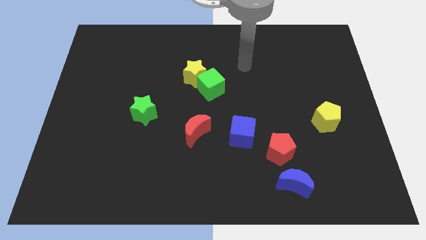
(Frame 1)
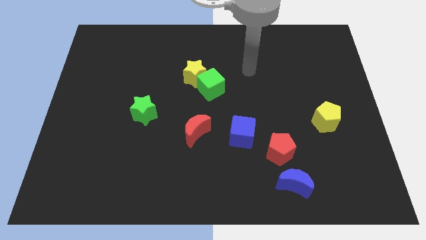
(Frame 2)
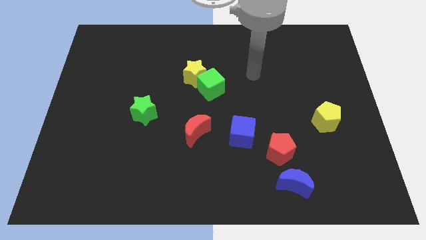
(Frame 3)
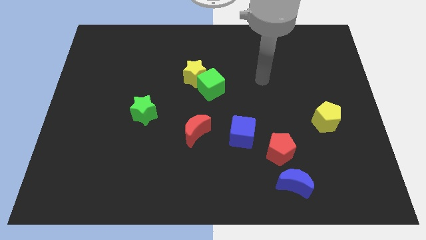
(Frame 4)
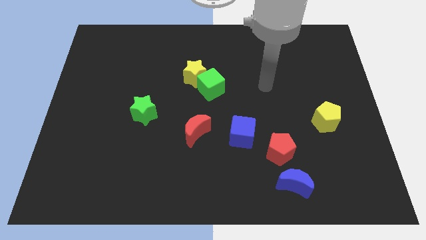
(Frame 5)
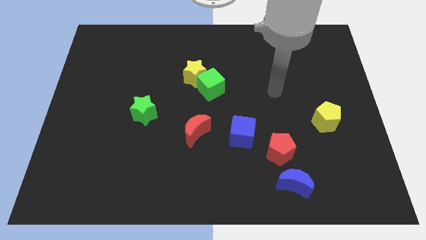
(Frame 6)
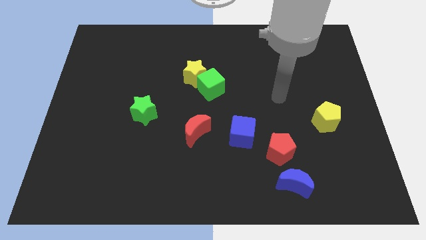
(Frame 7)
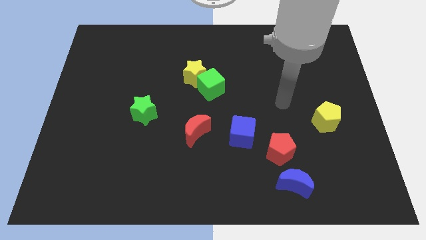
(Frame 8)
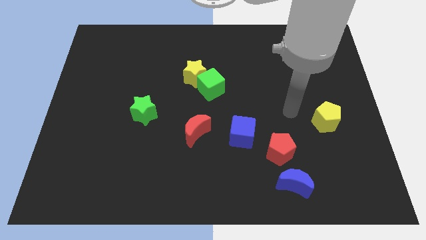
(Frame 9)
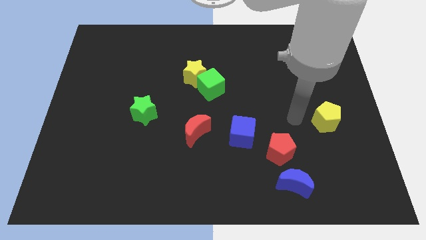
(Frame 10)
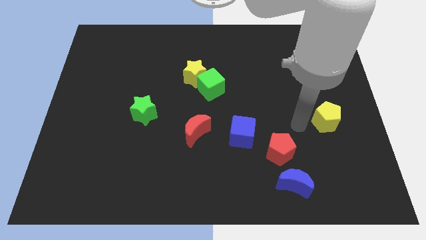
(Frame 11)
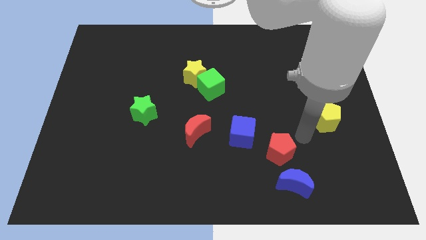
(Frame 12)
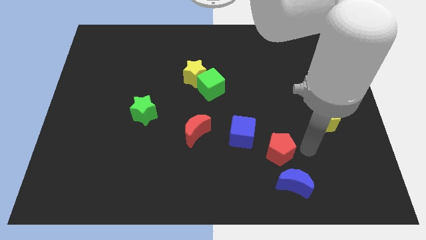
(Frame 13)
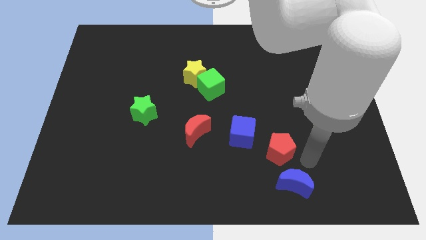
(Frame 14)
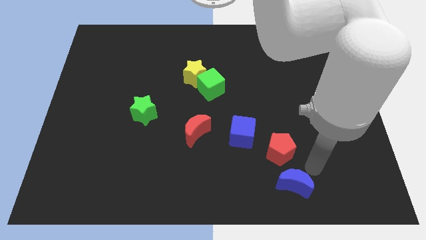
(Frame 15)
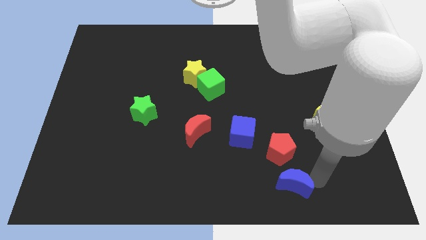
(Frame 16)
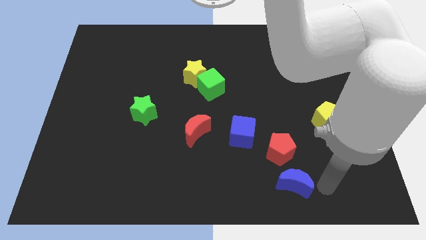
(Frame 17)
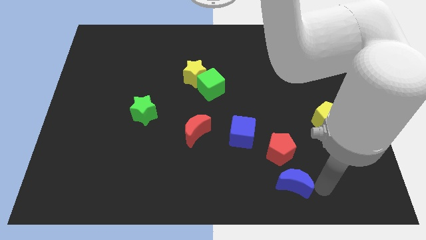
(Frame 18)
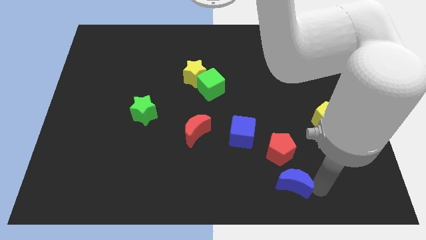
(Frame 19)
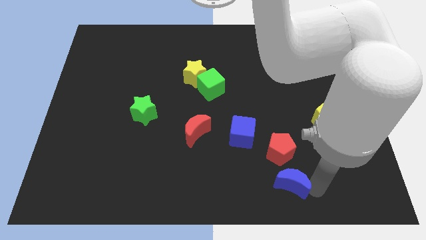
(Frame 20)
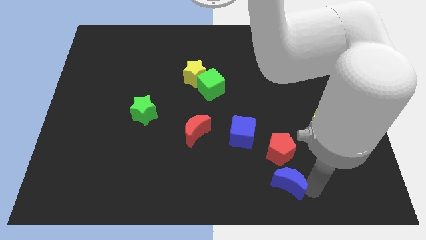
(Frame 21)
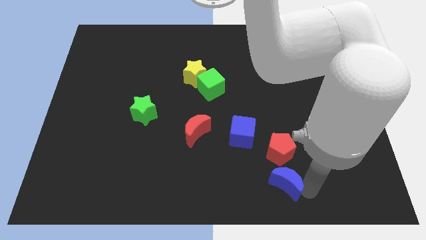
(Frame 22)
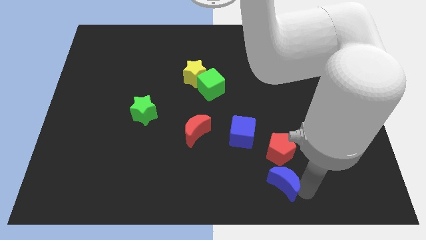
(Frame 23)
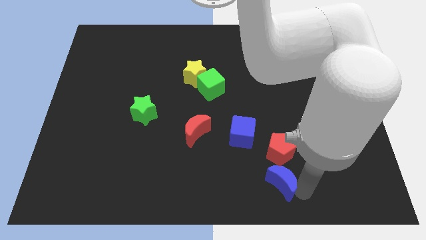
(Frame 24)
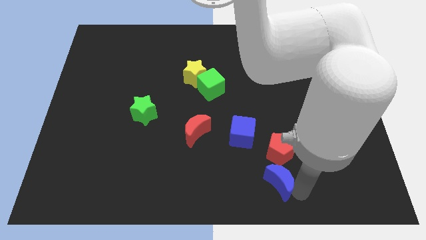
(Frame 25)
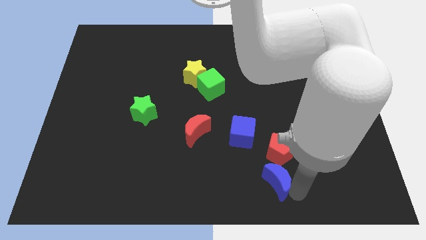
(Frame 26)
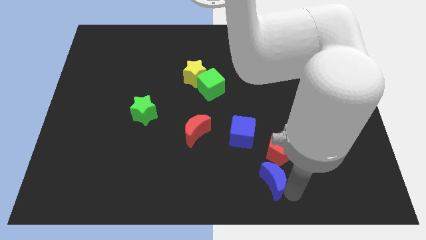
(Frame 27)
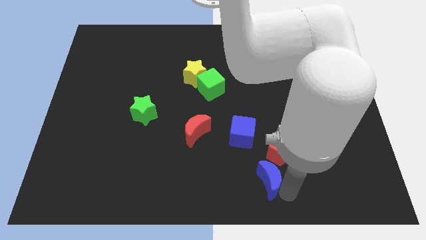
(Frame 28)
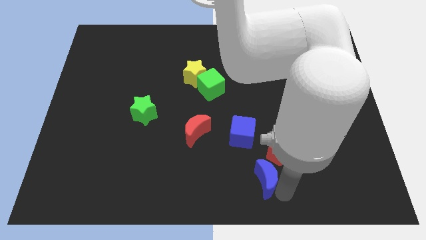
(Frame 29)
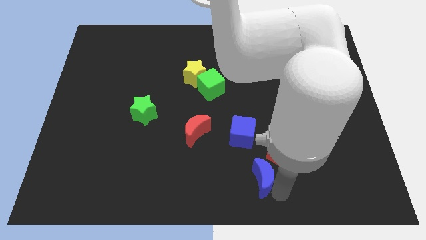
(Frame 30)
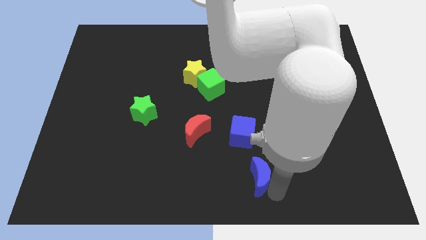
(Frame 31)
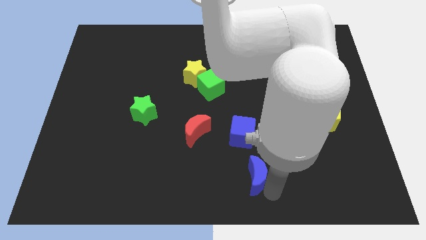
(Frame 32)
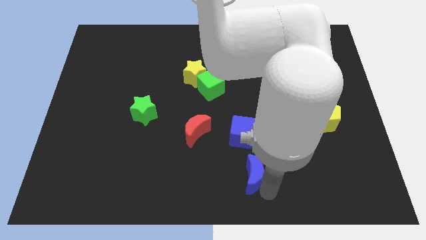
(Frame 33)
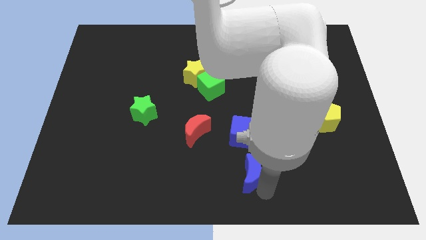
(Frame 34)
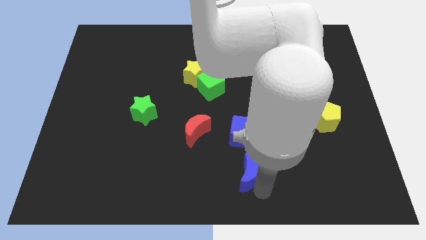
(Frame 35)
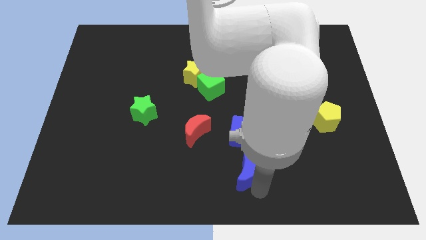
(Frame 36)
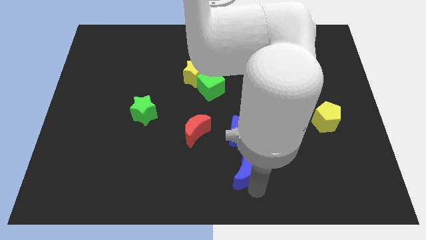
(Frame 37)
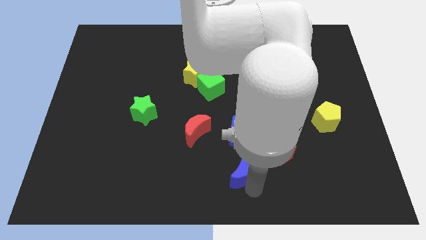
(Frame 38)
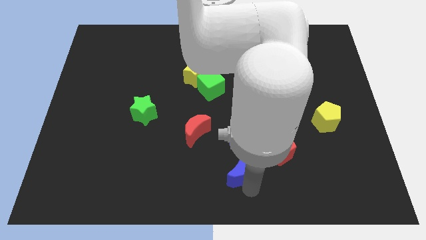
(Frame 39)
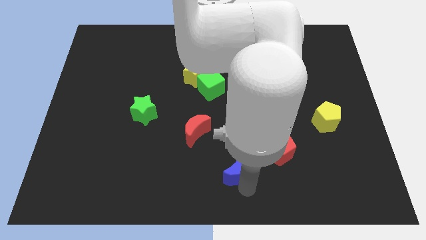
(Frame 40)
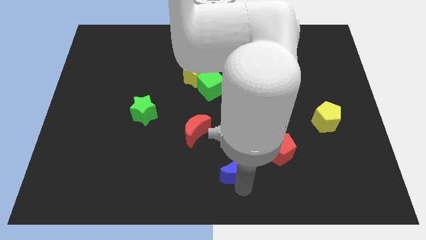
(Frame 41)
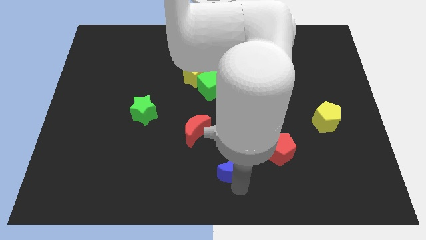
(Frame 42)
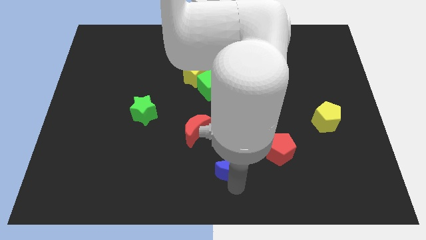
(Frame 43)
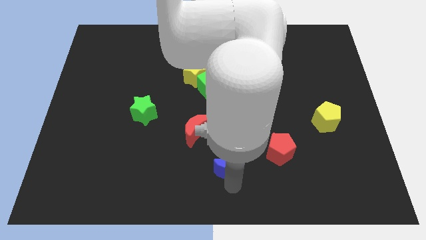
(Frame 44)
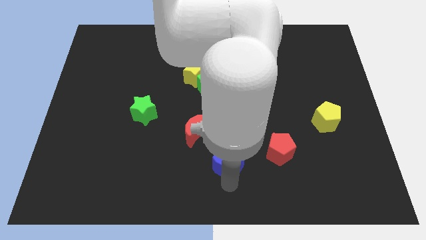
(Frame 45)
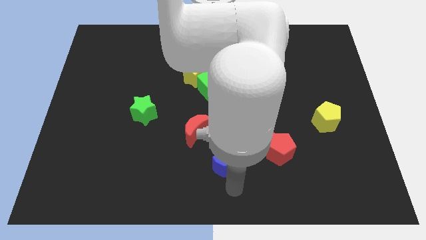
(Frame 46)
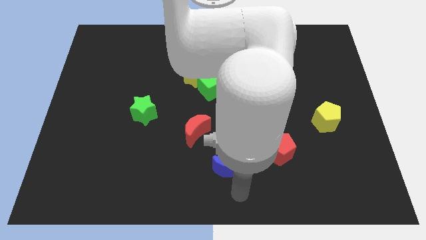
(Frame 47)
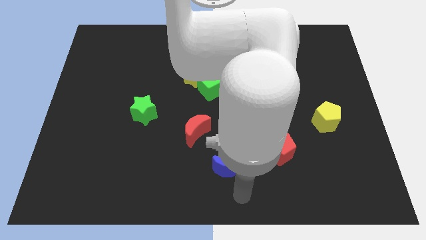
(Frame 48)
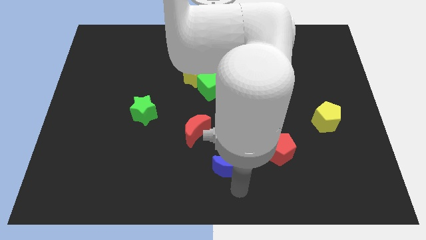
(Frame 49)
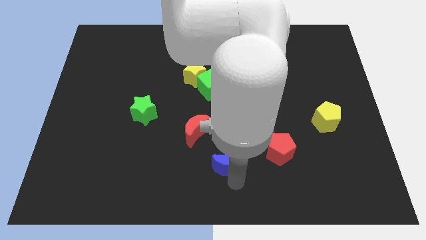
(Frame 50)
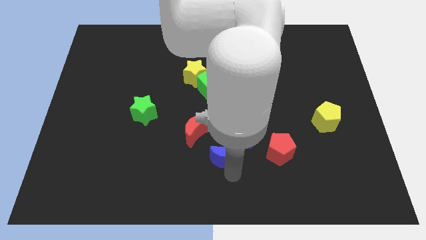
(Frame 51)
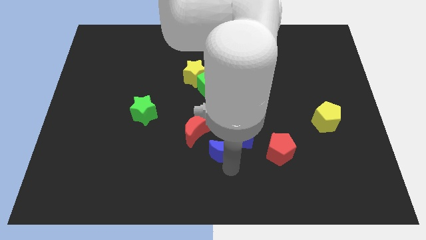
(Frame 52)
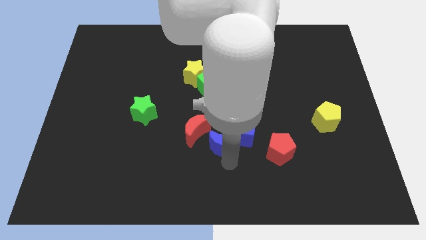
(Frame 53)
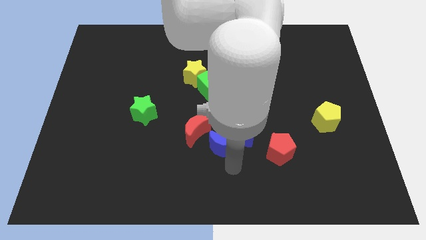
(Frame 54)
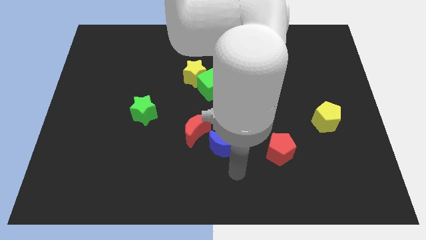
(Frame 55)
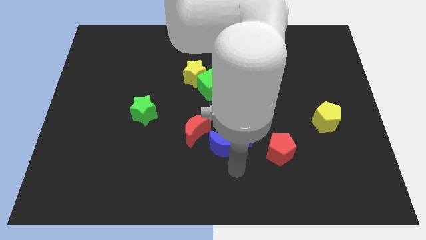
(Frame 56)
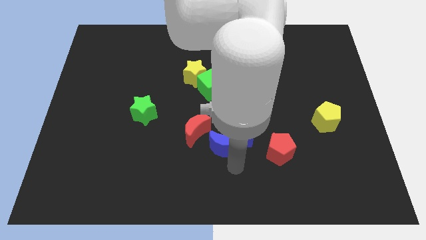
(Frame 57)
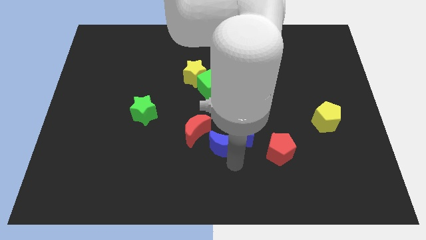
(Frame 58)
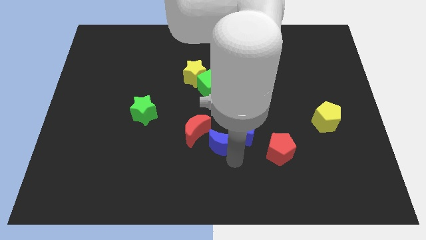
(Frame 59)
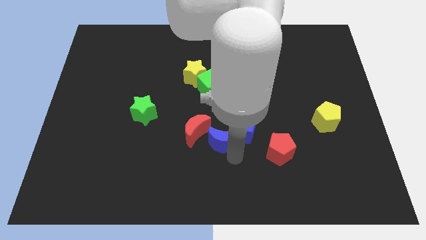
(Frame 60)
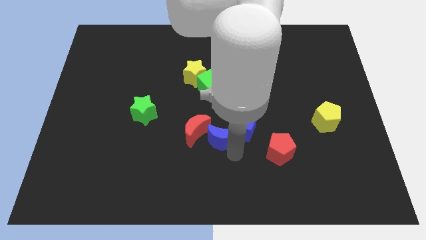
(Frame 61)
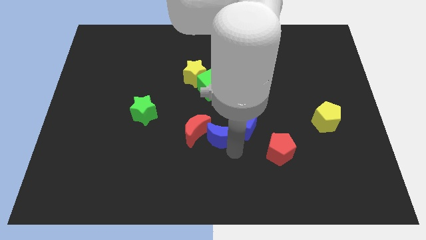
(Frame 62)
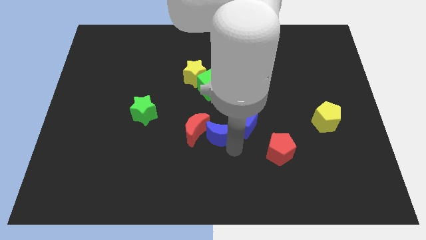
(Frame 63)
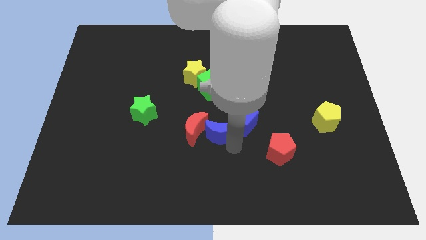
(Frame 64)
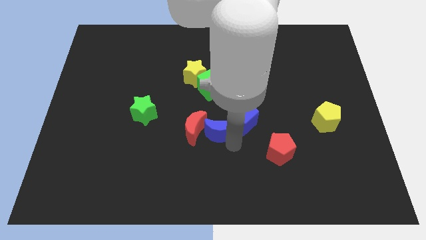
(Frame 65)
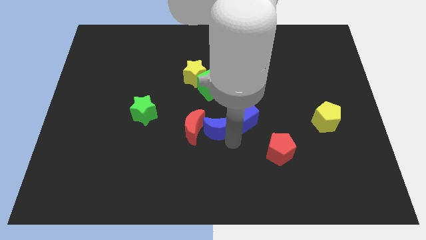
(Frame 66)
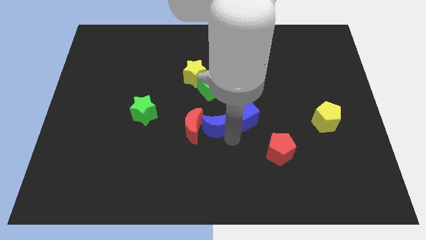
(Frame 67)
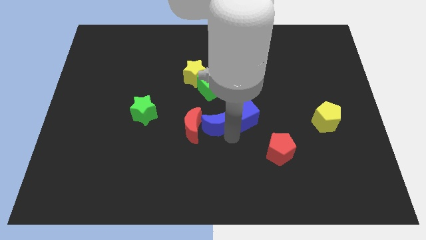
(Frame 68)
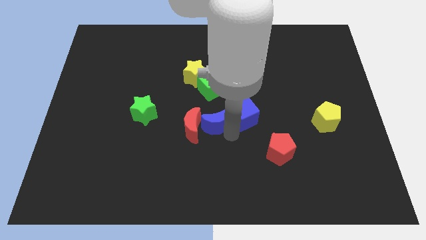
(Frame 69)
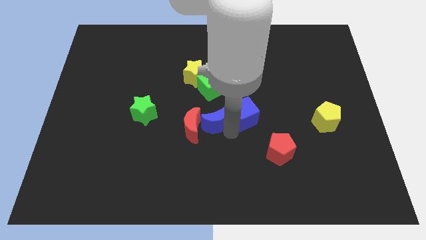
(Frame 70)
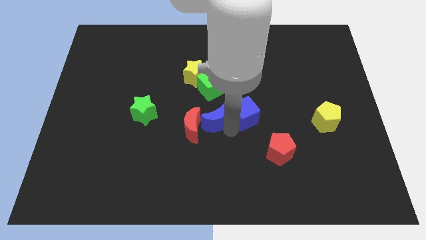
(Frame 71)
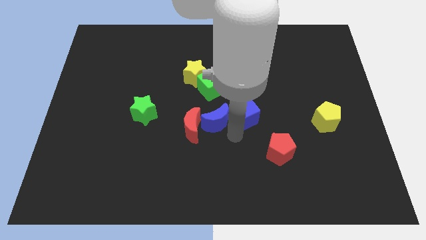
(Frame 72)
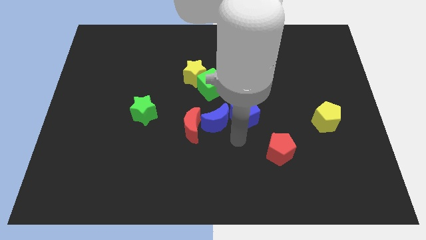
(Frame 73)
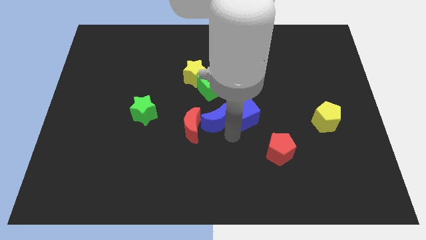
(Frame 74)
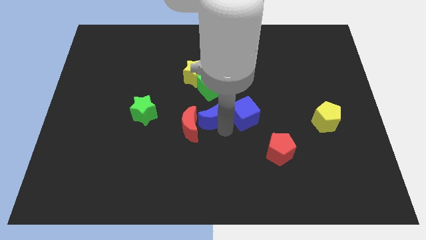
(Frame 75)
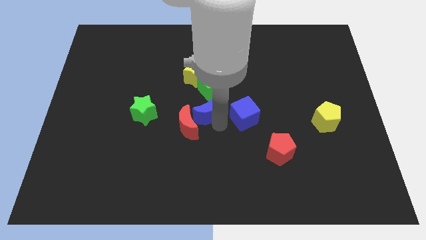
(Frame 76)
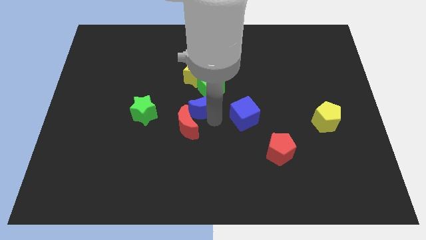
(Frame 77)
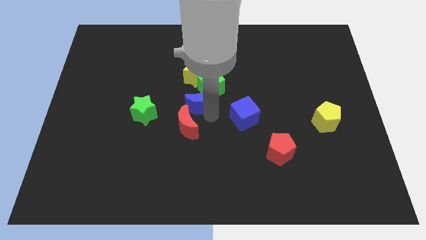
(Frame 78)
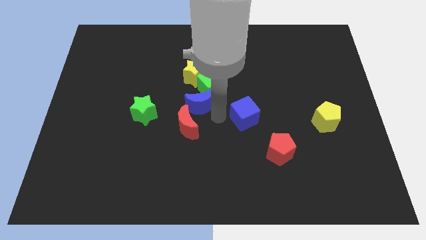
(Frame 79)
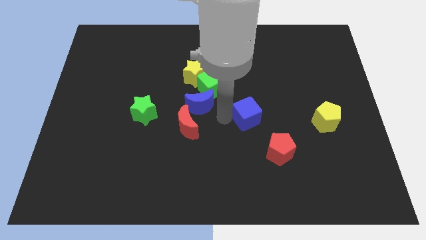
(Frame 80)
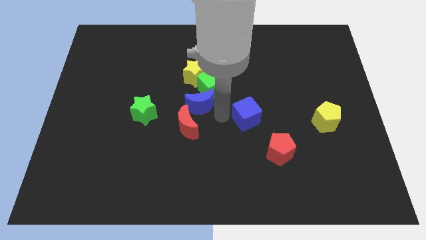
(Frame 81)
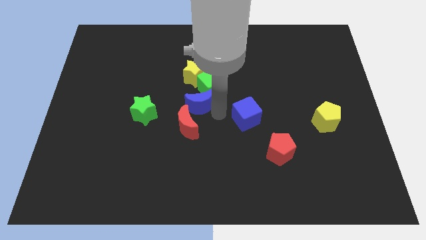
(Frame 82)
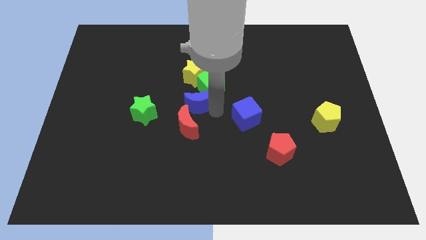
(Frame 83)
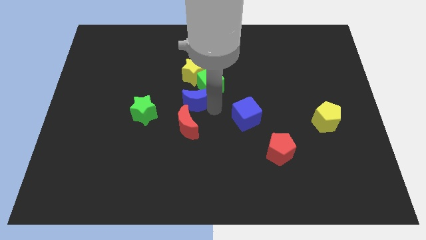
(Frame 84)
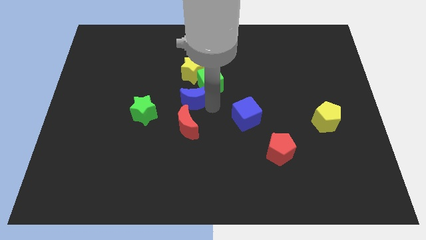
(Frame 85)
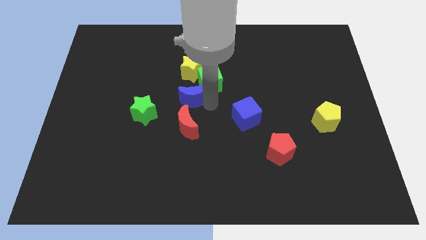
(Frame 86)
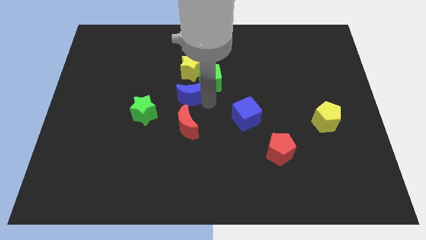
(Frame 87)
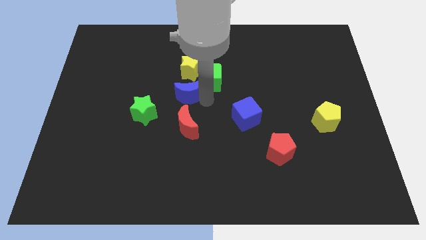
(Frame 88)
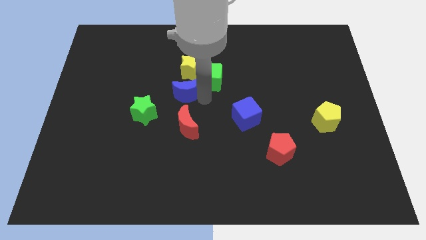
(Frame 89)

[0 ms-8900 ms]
push the blue moon to the bottom left of the yellow star
